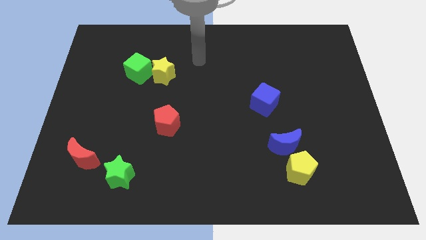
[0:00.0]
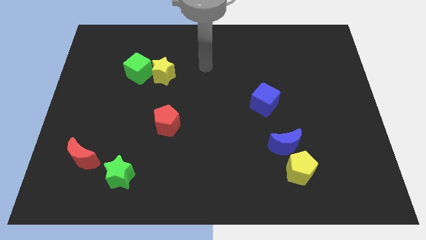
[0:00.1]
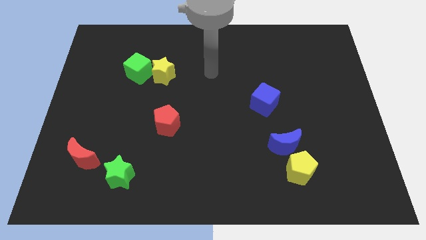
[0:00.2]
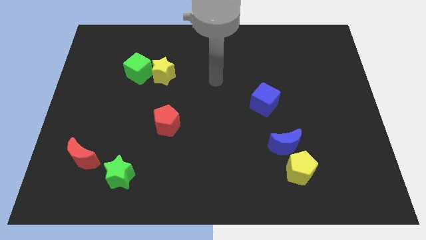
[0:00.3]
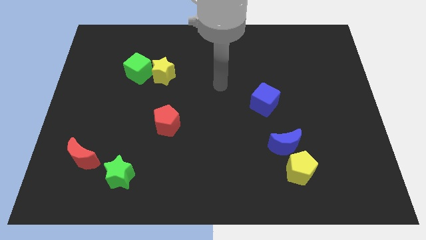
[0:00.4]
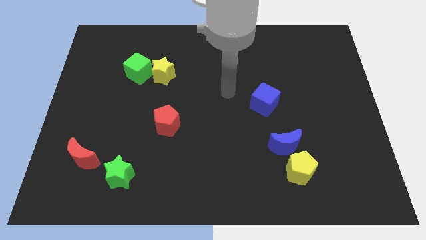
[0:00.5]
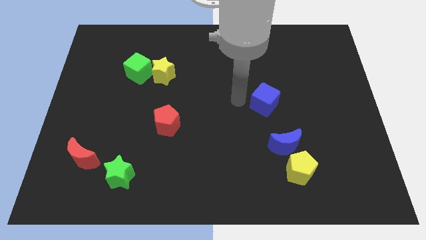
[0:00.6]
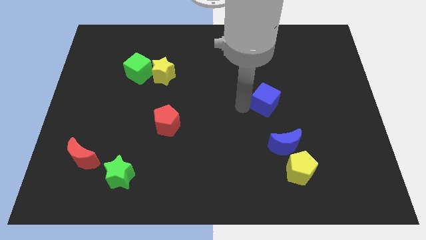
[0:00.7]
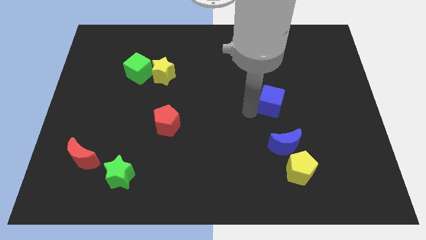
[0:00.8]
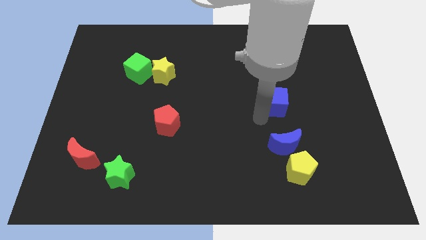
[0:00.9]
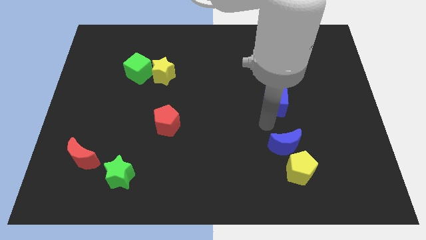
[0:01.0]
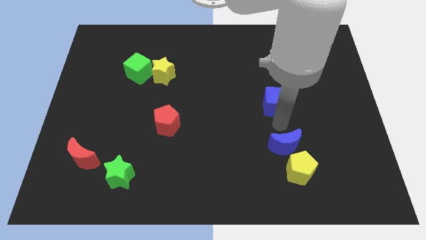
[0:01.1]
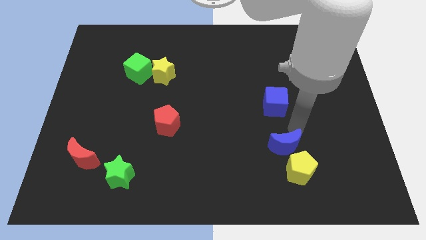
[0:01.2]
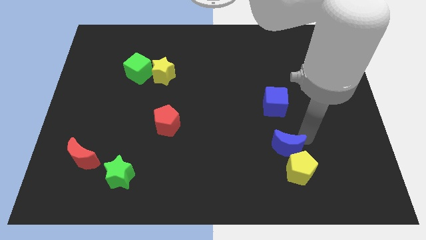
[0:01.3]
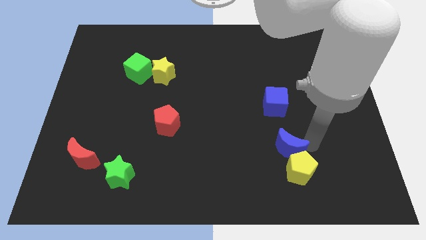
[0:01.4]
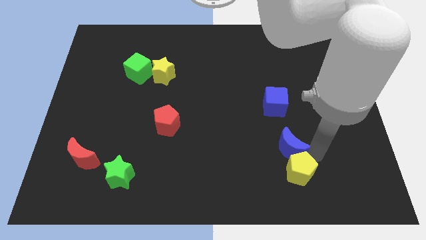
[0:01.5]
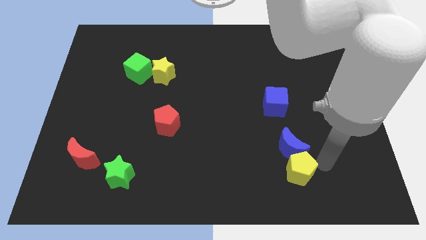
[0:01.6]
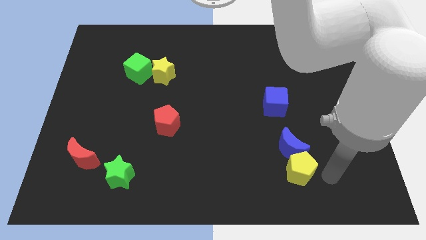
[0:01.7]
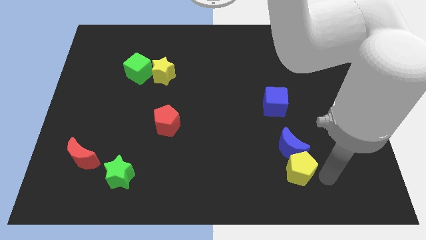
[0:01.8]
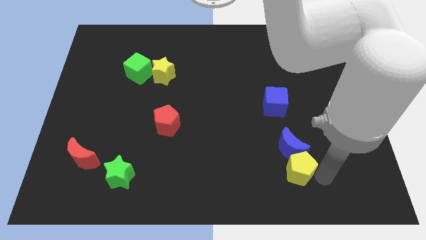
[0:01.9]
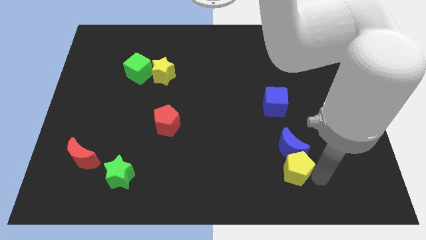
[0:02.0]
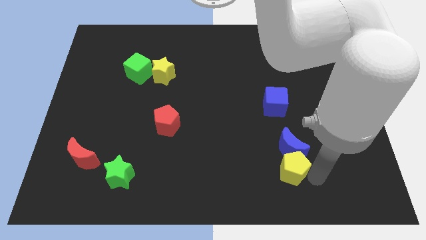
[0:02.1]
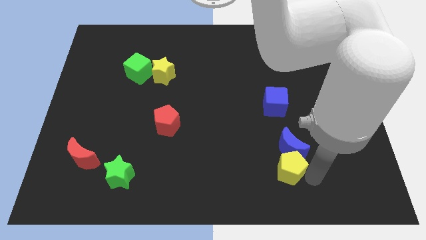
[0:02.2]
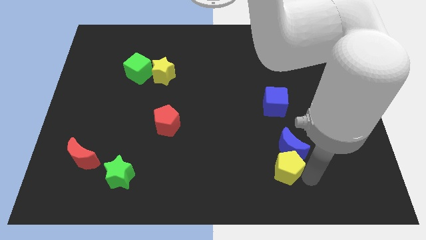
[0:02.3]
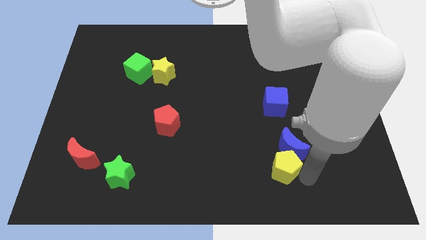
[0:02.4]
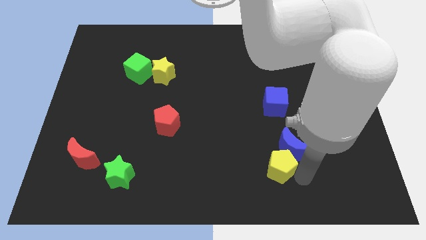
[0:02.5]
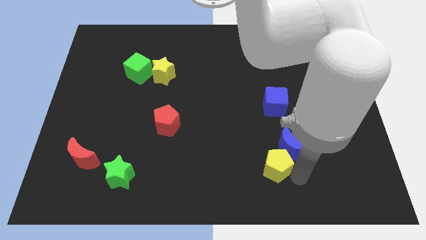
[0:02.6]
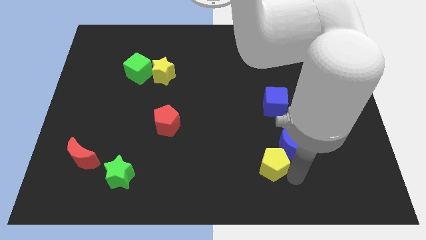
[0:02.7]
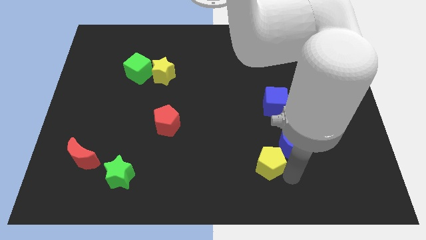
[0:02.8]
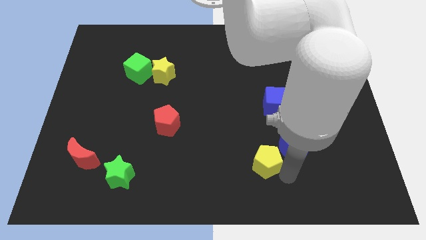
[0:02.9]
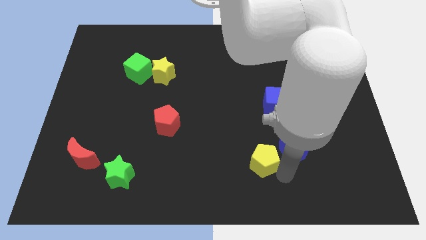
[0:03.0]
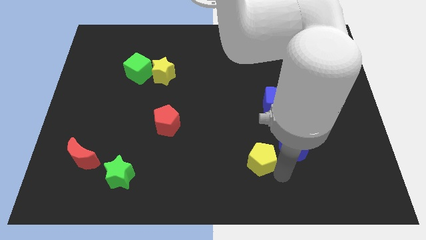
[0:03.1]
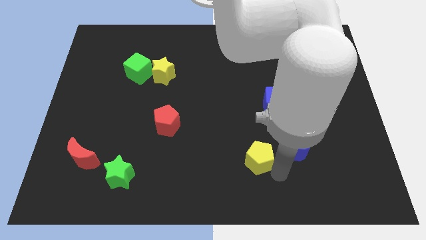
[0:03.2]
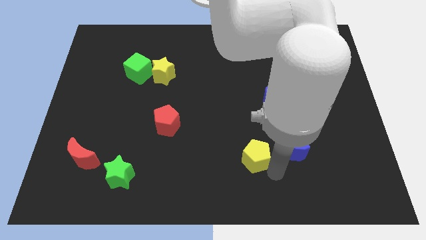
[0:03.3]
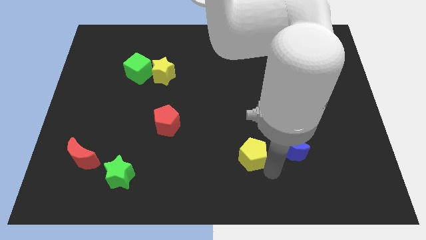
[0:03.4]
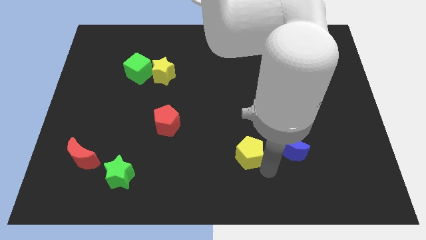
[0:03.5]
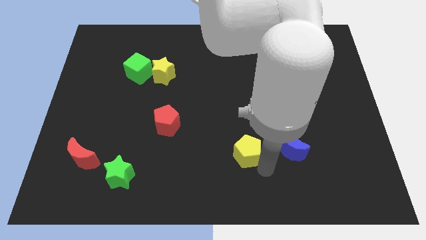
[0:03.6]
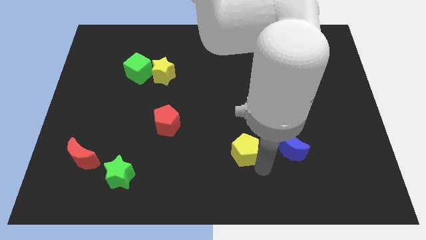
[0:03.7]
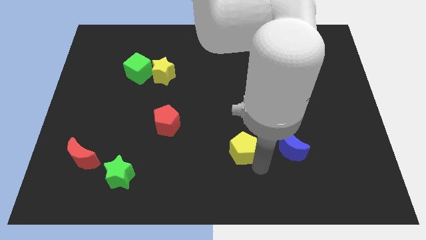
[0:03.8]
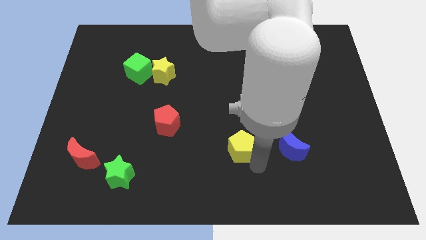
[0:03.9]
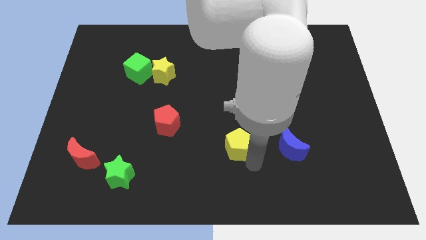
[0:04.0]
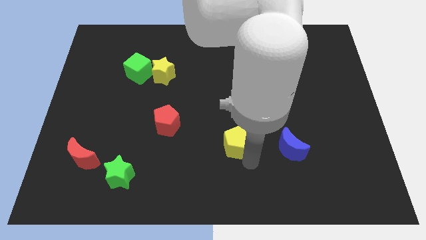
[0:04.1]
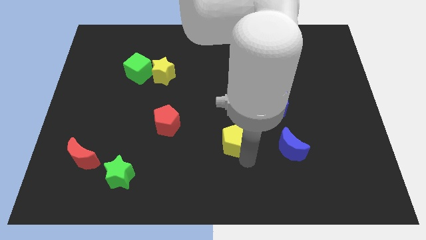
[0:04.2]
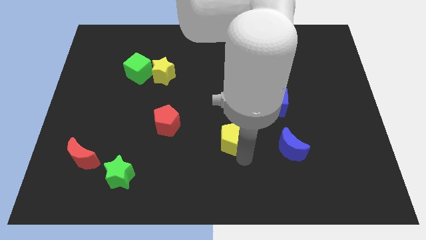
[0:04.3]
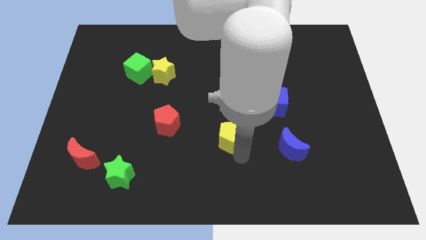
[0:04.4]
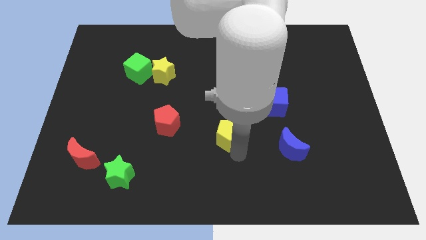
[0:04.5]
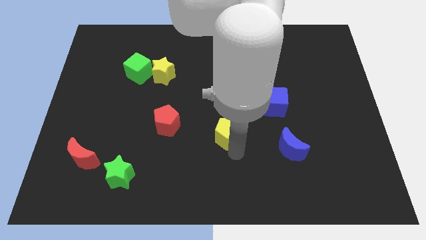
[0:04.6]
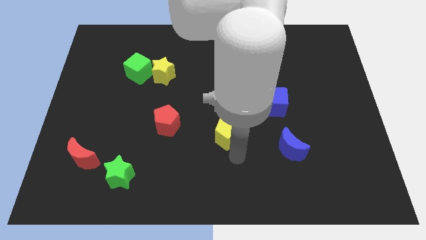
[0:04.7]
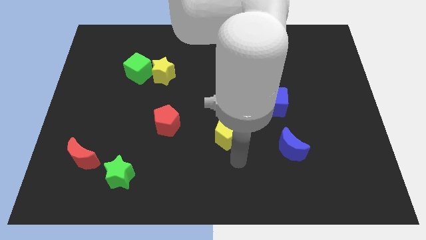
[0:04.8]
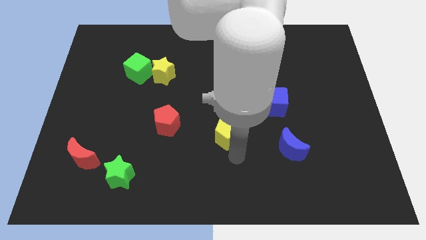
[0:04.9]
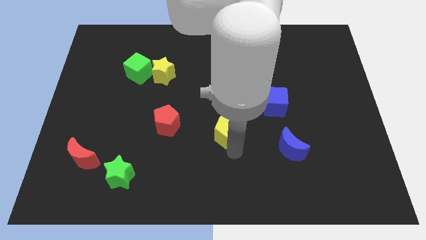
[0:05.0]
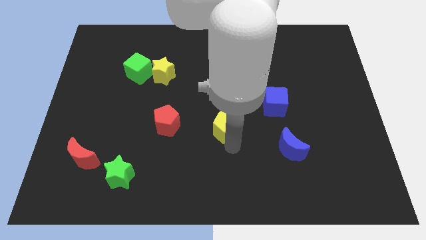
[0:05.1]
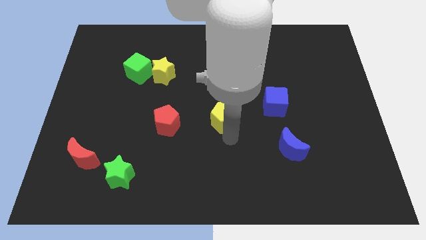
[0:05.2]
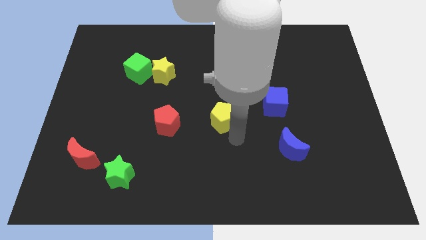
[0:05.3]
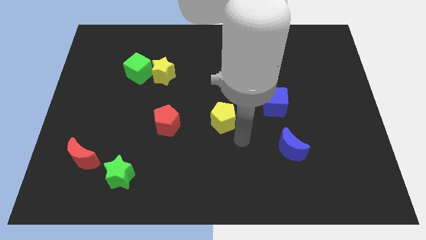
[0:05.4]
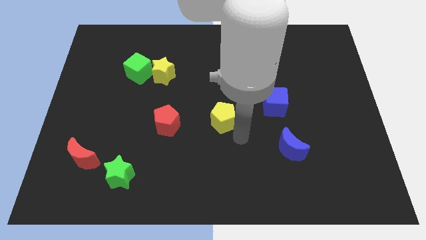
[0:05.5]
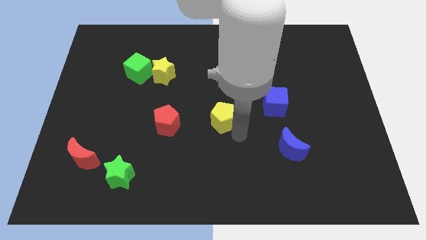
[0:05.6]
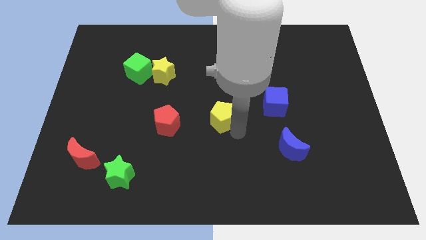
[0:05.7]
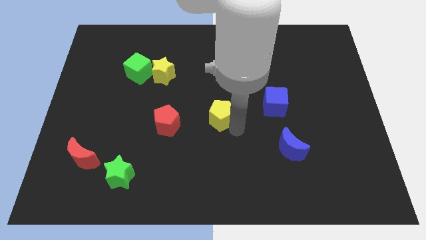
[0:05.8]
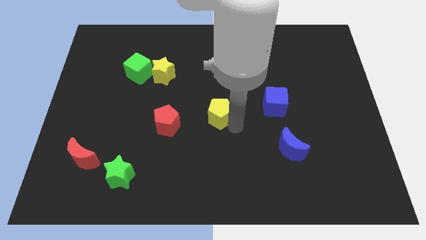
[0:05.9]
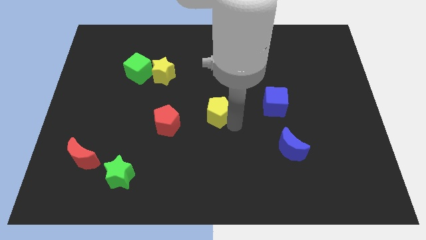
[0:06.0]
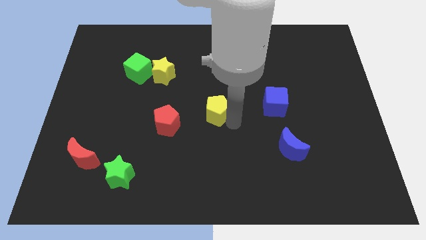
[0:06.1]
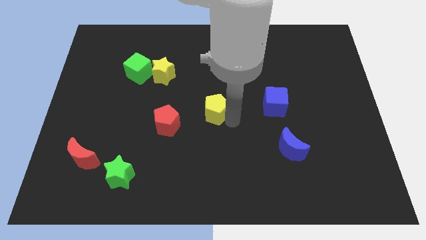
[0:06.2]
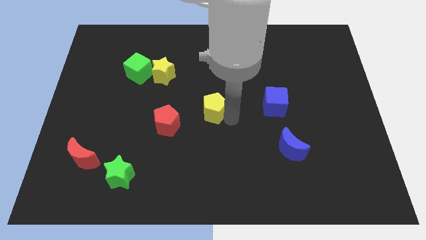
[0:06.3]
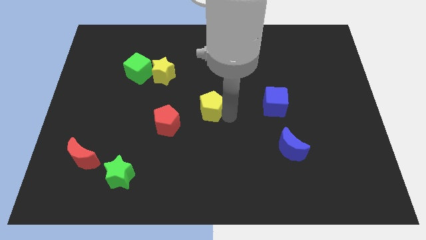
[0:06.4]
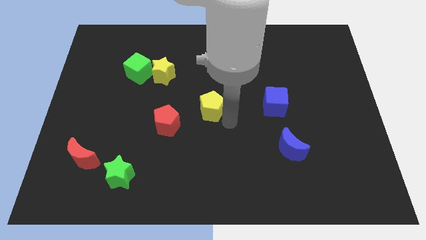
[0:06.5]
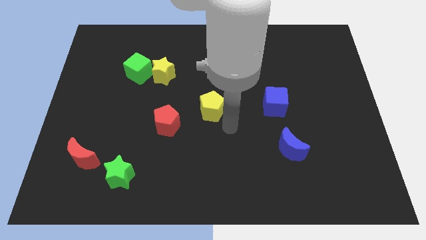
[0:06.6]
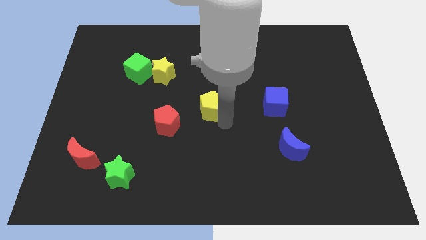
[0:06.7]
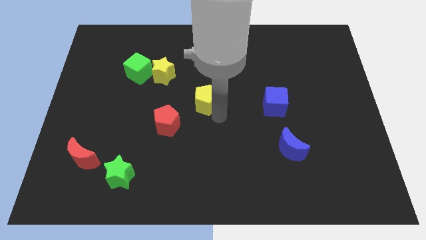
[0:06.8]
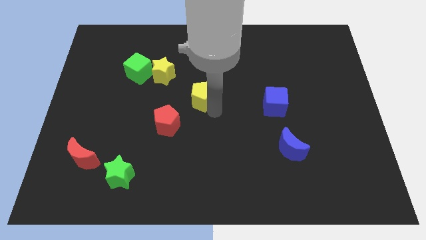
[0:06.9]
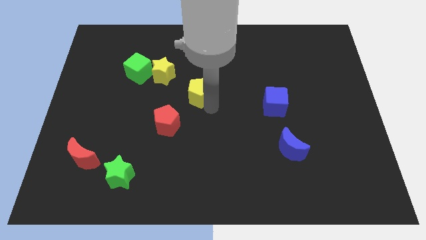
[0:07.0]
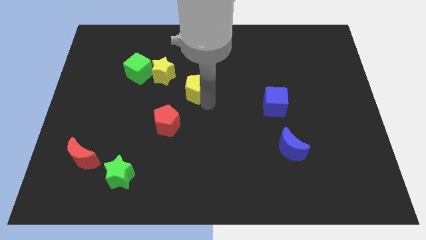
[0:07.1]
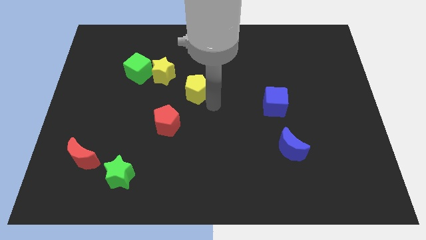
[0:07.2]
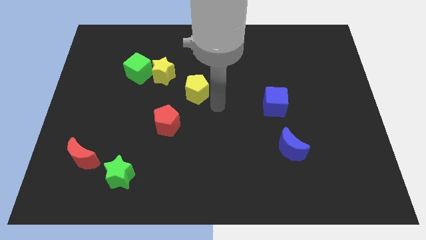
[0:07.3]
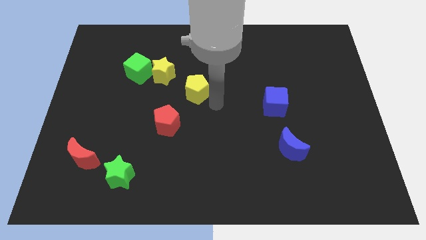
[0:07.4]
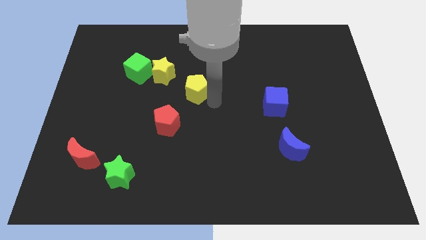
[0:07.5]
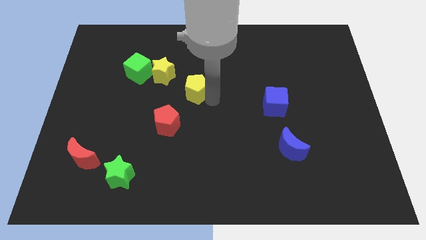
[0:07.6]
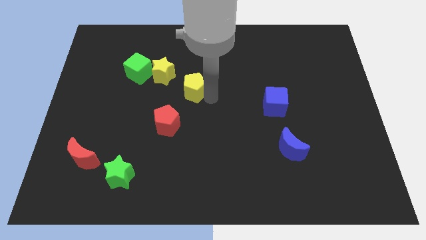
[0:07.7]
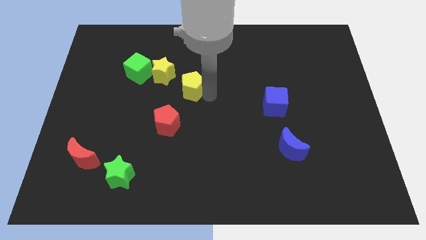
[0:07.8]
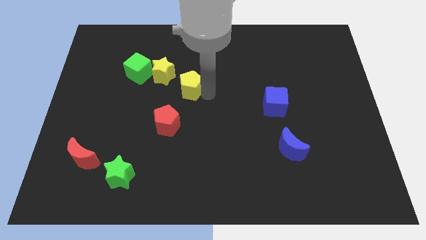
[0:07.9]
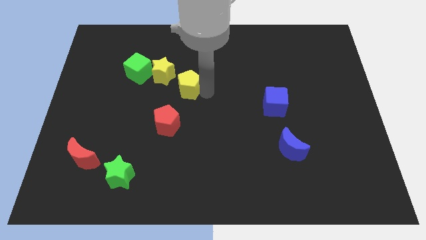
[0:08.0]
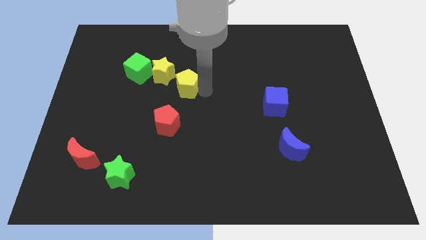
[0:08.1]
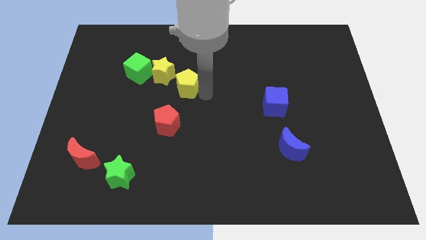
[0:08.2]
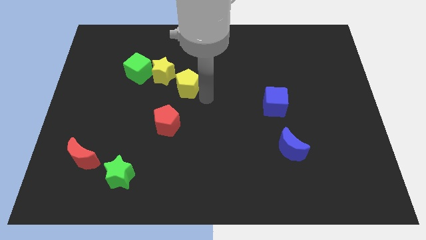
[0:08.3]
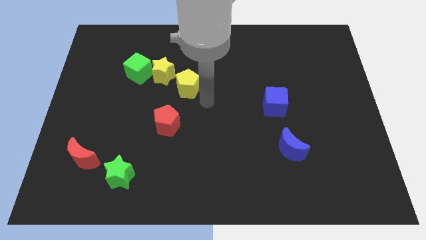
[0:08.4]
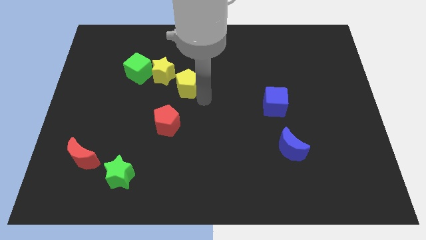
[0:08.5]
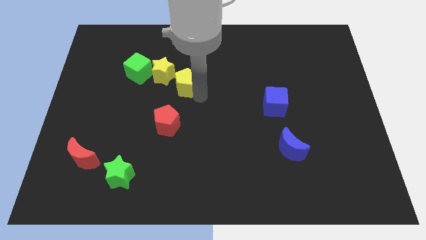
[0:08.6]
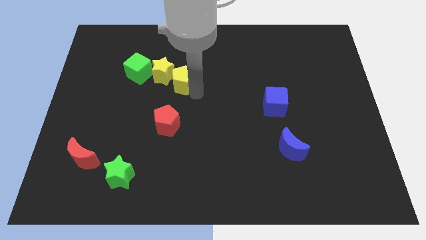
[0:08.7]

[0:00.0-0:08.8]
move the yellow pentagon to the yellow star
